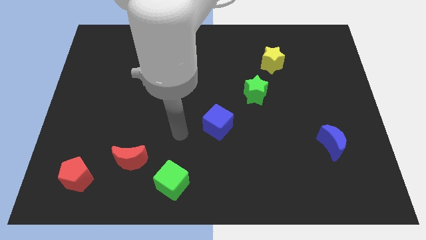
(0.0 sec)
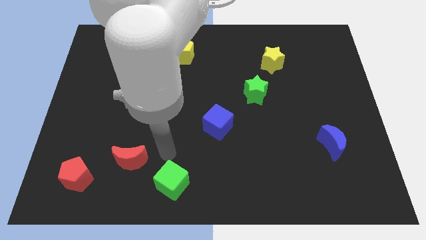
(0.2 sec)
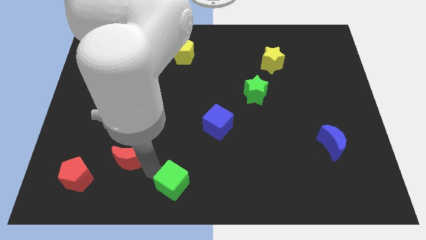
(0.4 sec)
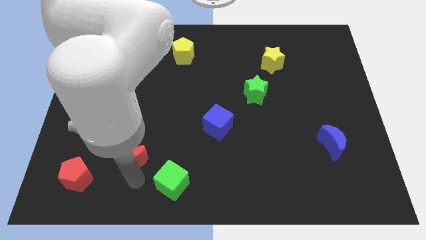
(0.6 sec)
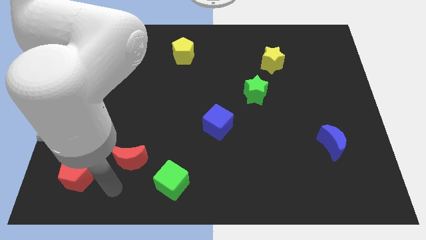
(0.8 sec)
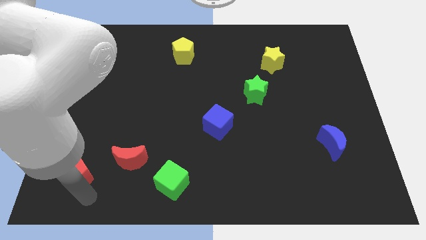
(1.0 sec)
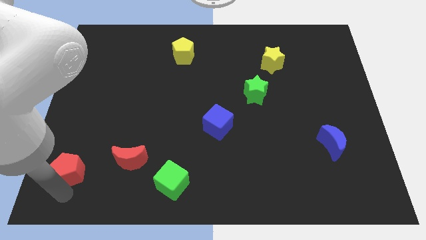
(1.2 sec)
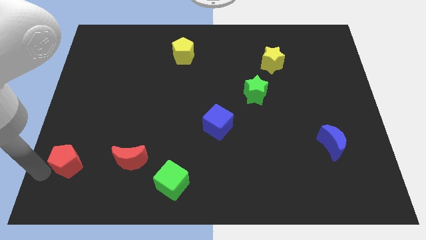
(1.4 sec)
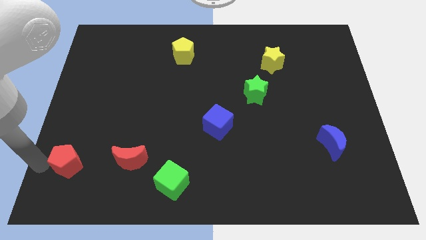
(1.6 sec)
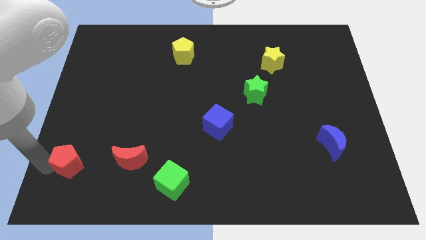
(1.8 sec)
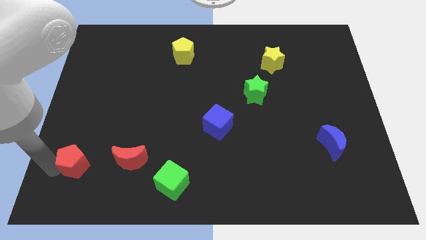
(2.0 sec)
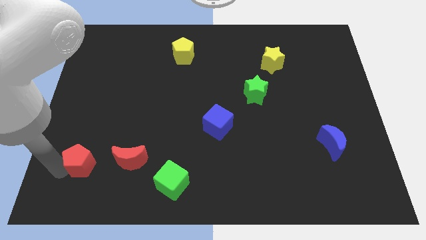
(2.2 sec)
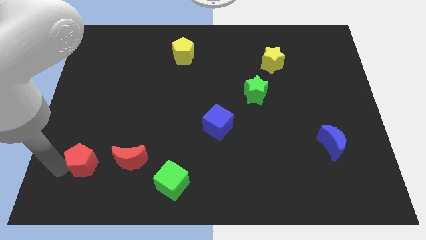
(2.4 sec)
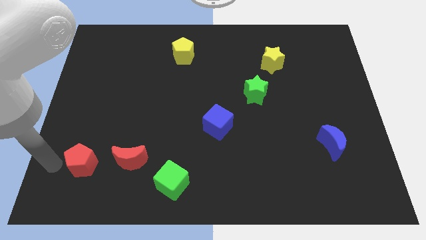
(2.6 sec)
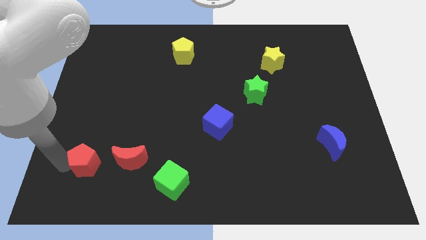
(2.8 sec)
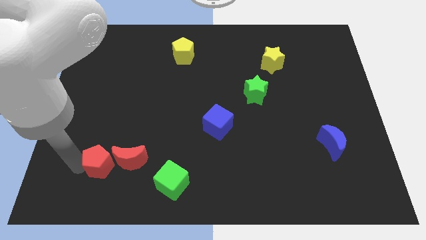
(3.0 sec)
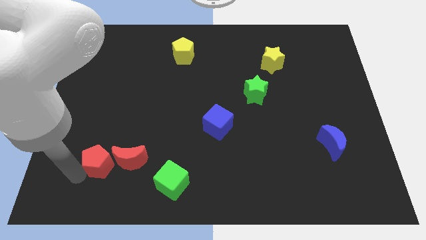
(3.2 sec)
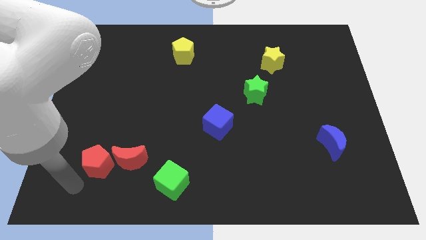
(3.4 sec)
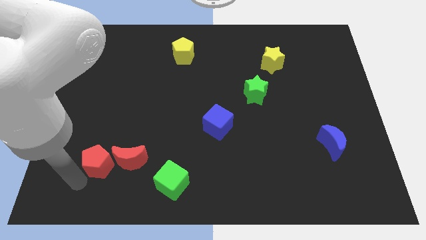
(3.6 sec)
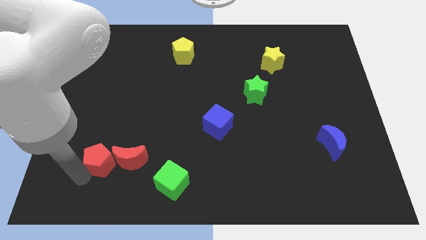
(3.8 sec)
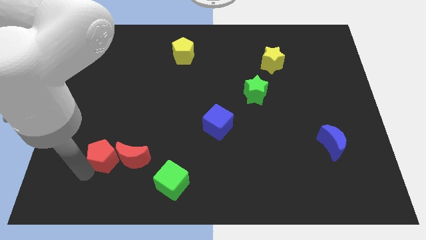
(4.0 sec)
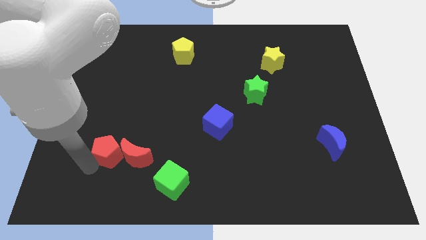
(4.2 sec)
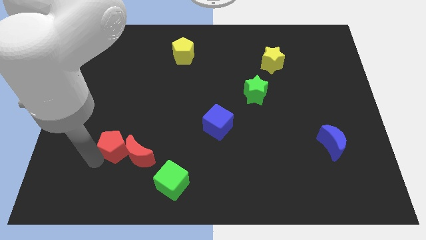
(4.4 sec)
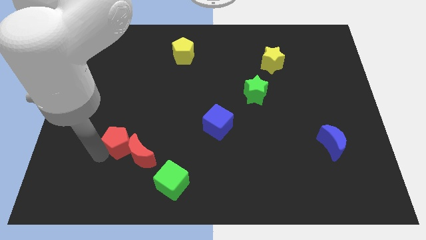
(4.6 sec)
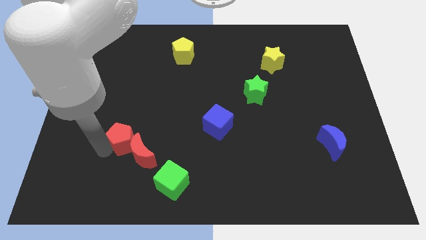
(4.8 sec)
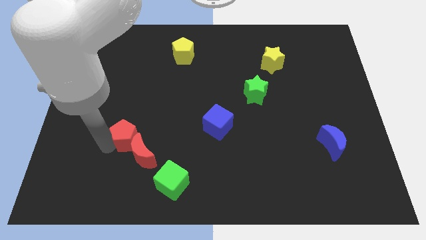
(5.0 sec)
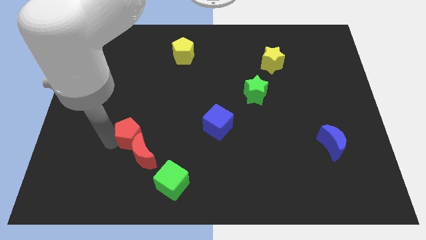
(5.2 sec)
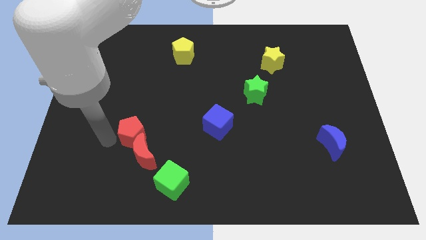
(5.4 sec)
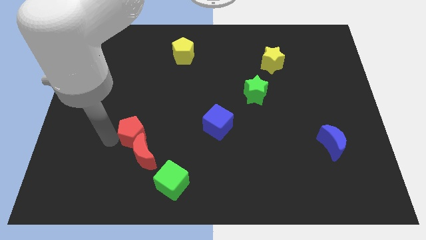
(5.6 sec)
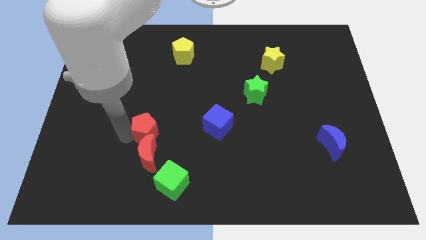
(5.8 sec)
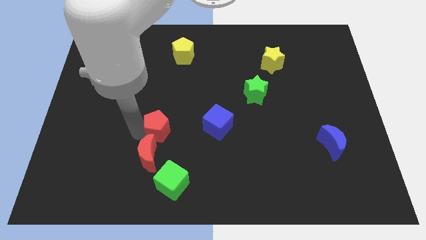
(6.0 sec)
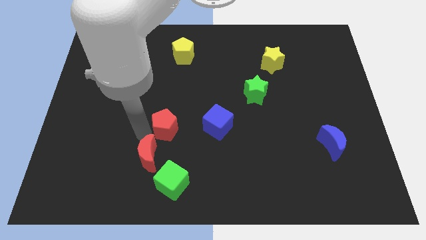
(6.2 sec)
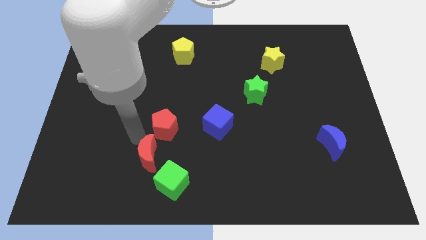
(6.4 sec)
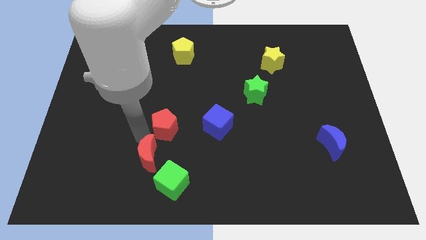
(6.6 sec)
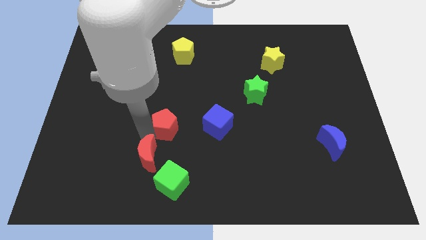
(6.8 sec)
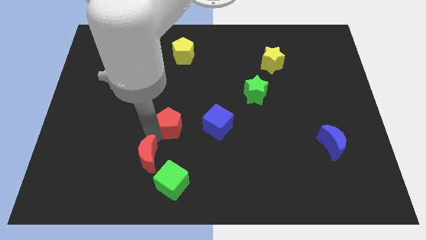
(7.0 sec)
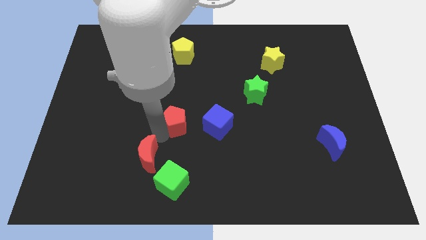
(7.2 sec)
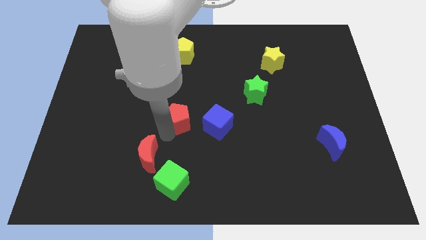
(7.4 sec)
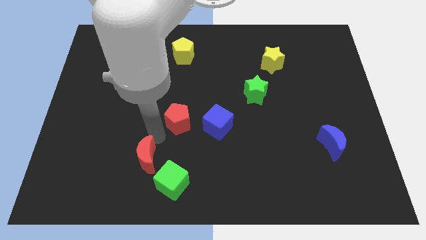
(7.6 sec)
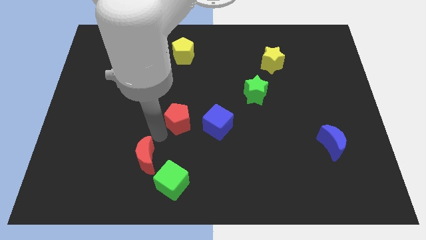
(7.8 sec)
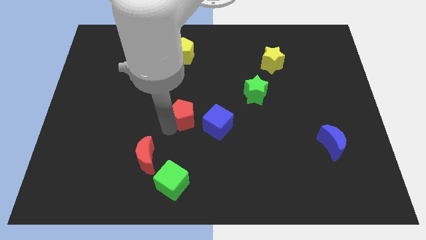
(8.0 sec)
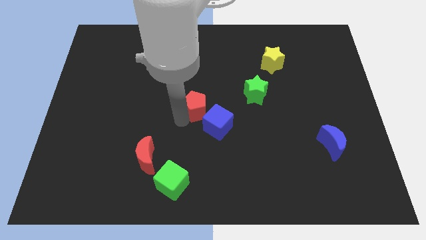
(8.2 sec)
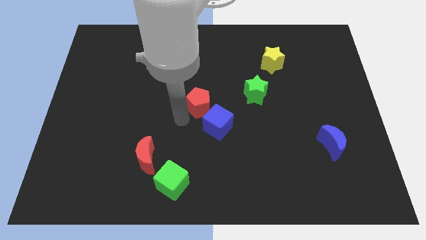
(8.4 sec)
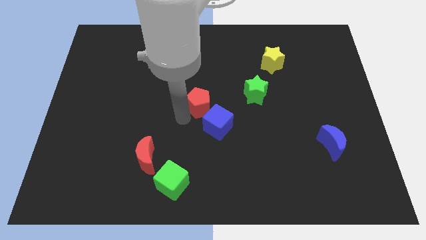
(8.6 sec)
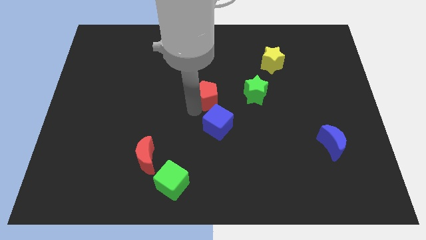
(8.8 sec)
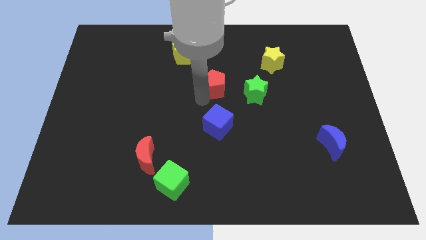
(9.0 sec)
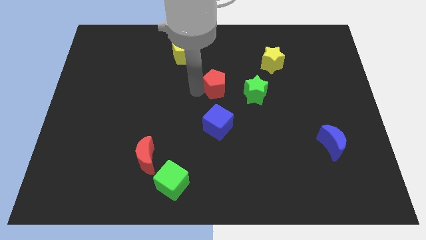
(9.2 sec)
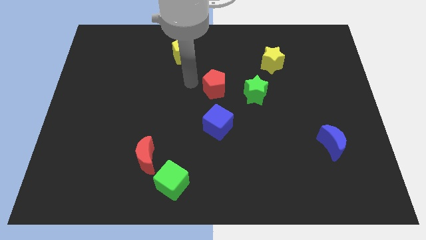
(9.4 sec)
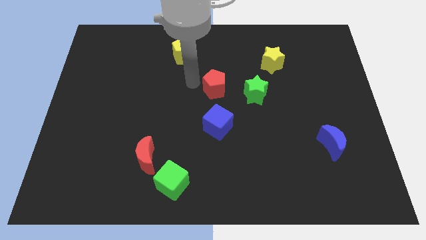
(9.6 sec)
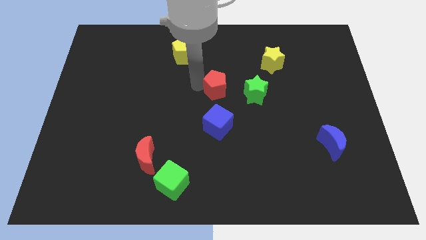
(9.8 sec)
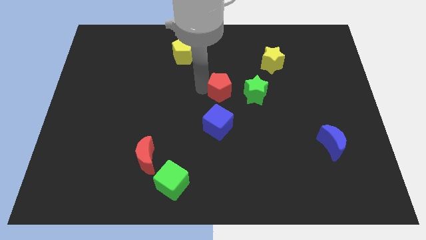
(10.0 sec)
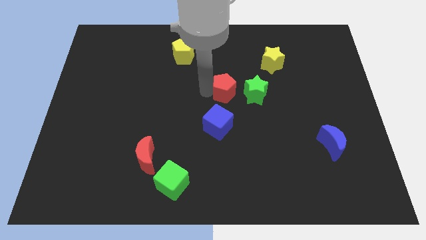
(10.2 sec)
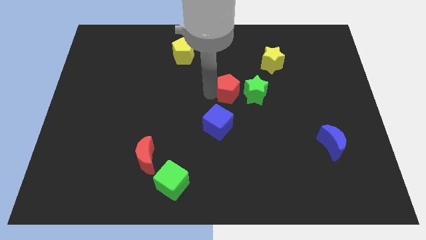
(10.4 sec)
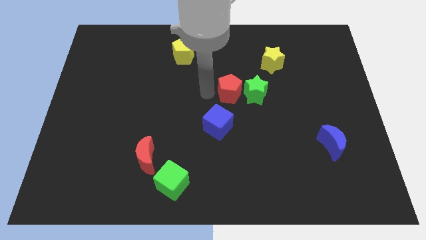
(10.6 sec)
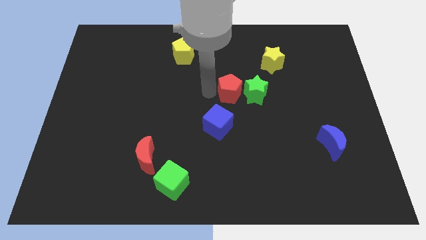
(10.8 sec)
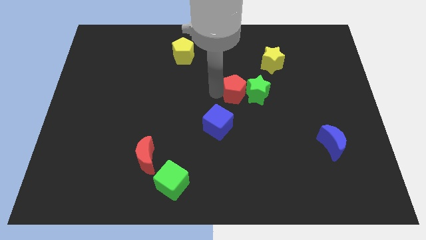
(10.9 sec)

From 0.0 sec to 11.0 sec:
move the red pentagon towards the green star

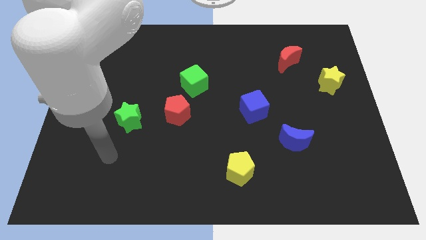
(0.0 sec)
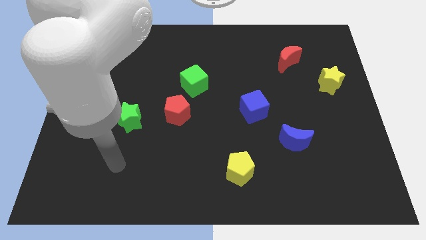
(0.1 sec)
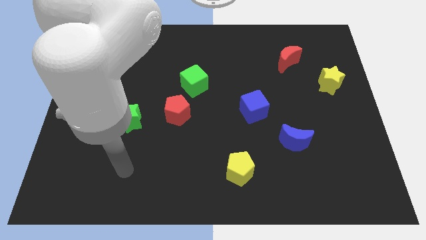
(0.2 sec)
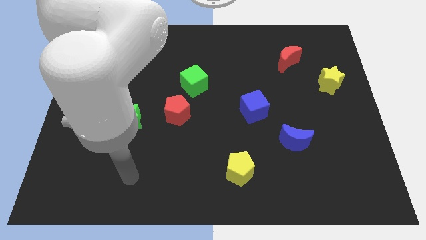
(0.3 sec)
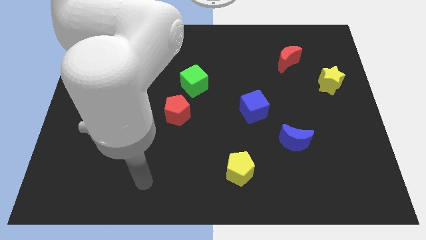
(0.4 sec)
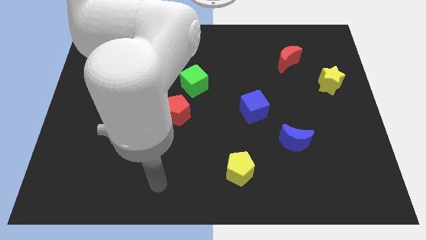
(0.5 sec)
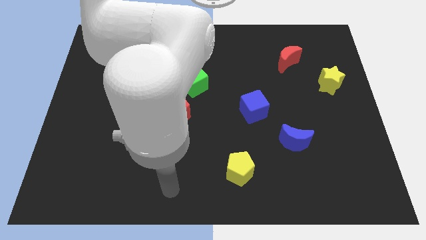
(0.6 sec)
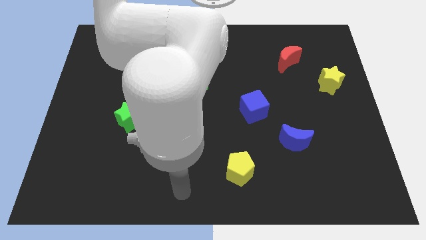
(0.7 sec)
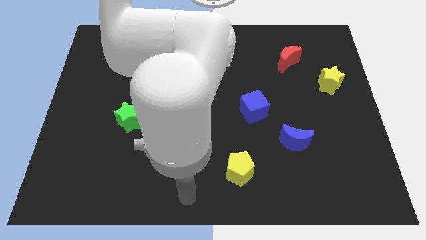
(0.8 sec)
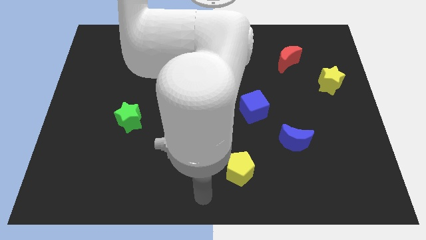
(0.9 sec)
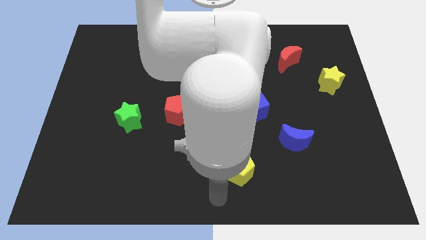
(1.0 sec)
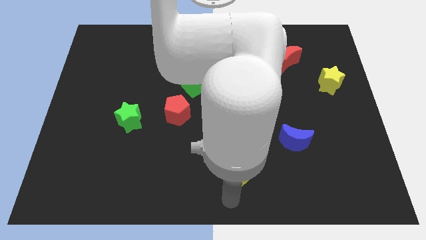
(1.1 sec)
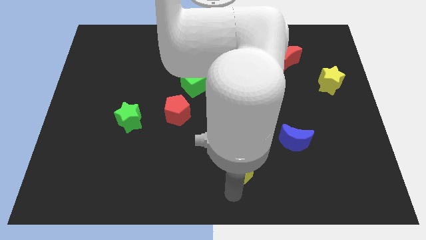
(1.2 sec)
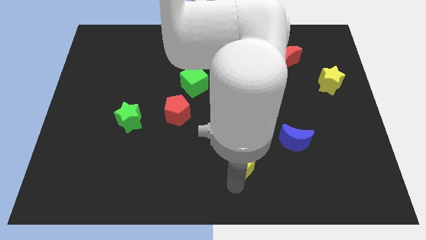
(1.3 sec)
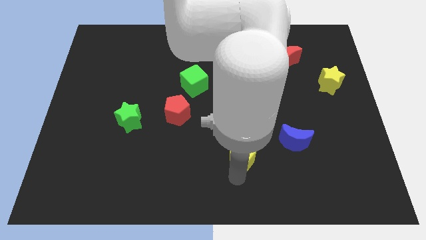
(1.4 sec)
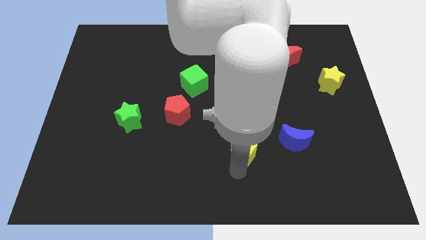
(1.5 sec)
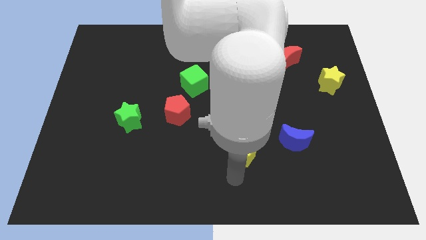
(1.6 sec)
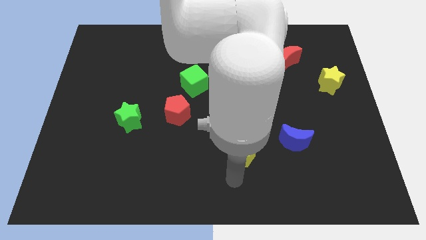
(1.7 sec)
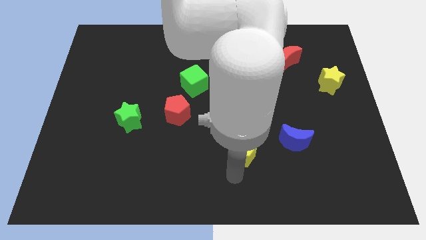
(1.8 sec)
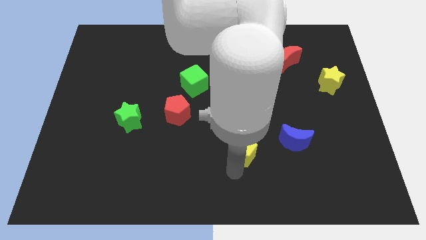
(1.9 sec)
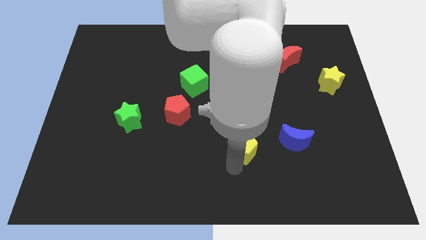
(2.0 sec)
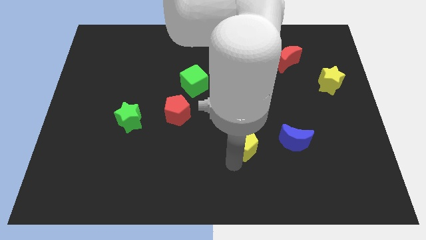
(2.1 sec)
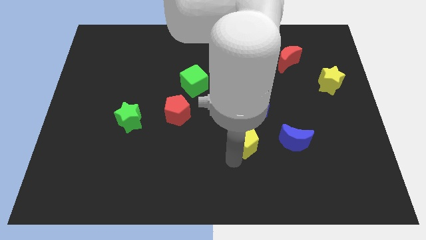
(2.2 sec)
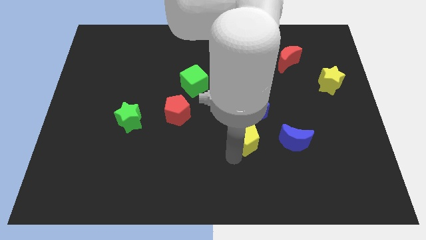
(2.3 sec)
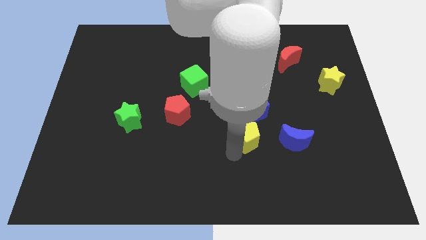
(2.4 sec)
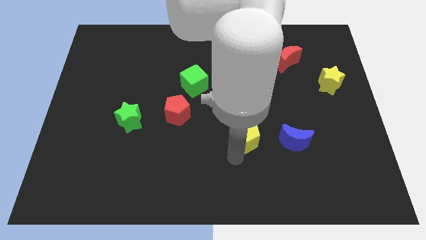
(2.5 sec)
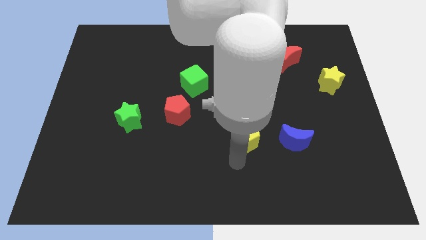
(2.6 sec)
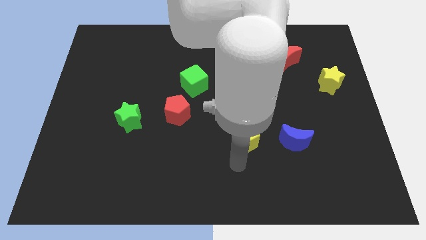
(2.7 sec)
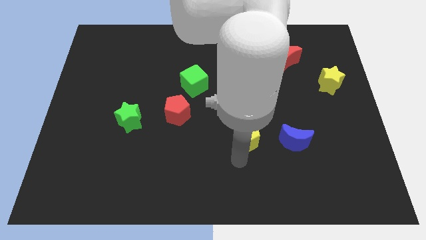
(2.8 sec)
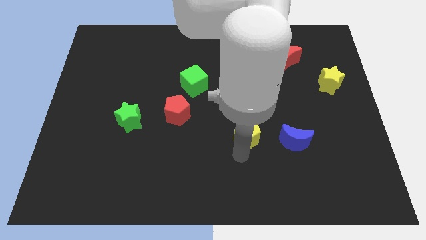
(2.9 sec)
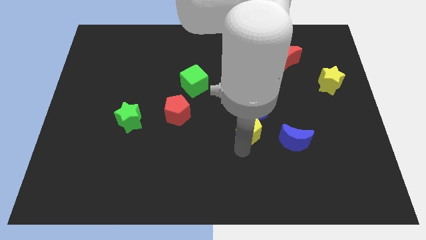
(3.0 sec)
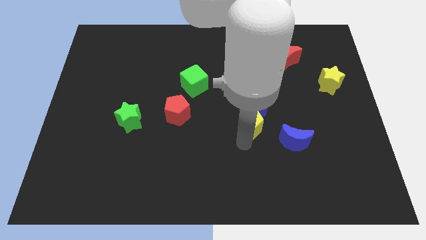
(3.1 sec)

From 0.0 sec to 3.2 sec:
slide the yellow pentagon close to the blue cube
